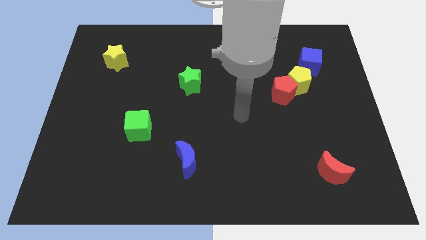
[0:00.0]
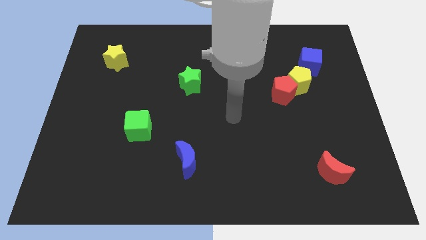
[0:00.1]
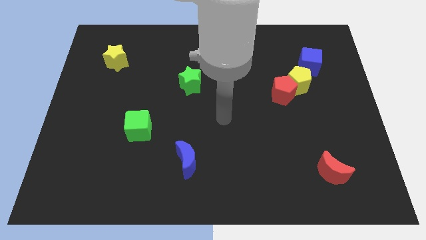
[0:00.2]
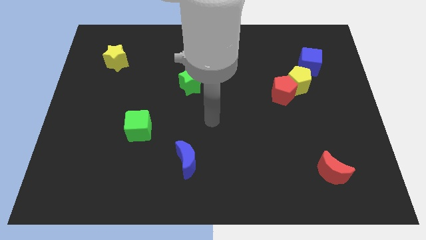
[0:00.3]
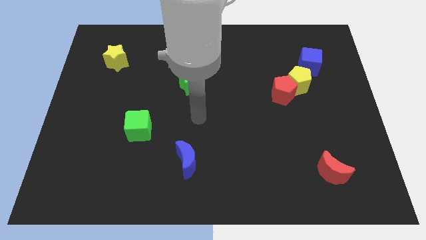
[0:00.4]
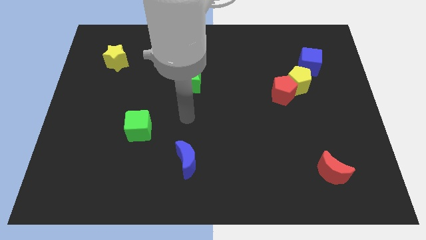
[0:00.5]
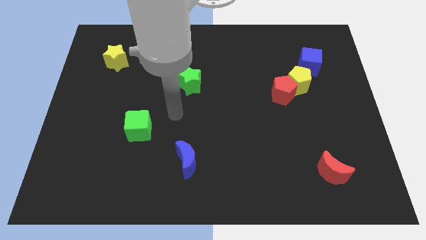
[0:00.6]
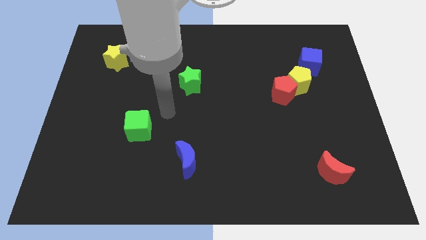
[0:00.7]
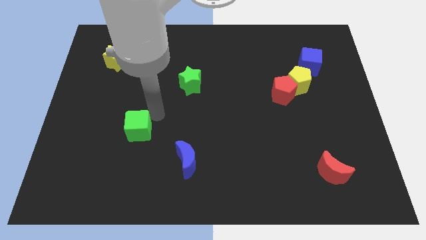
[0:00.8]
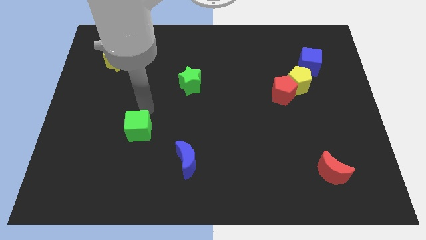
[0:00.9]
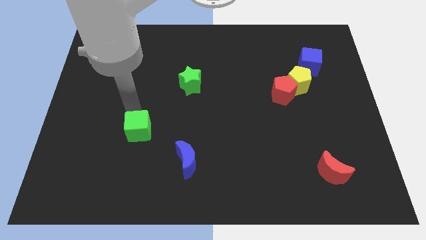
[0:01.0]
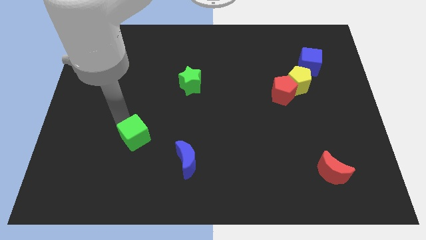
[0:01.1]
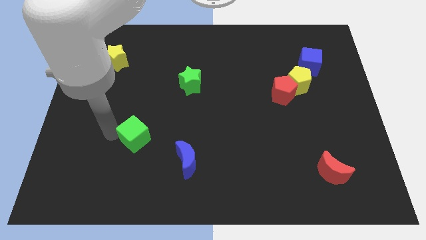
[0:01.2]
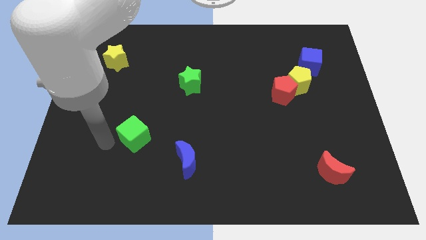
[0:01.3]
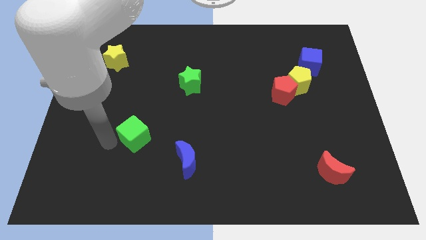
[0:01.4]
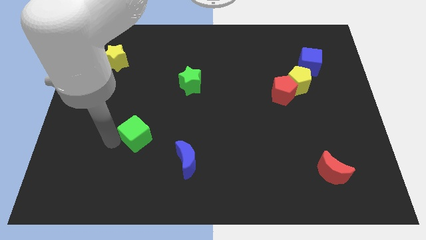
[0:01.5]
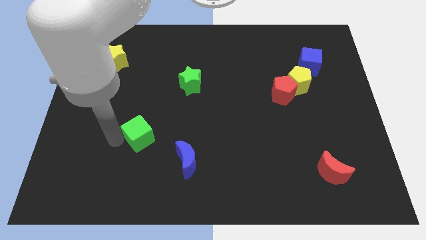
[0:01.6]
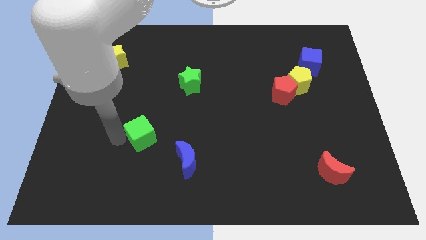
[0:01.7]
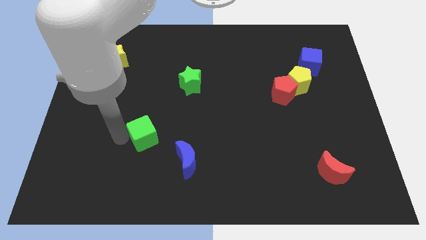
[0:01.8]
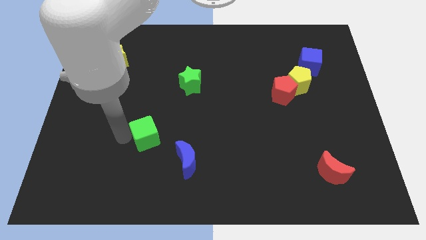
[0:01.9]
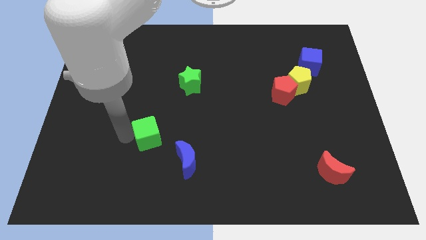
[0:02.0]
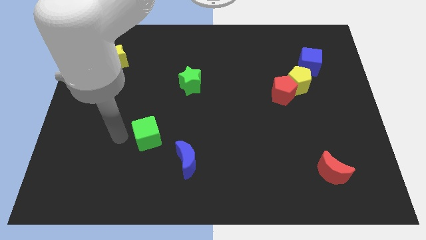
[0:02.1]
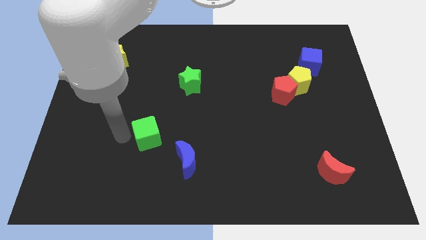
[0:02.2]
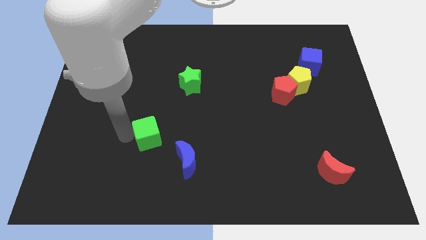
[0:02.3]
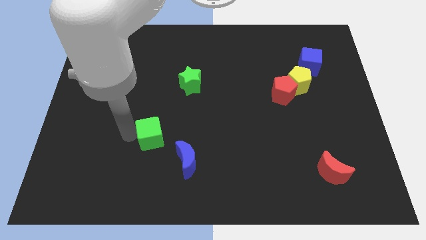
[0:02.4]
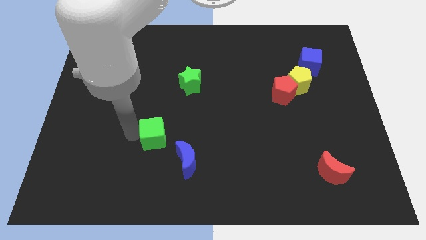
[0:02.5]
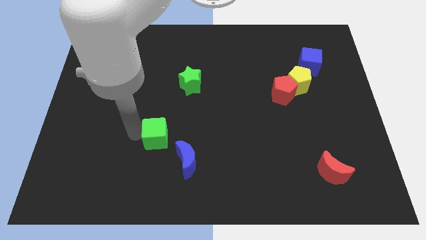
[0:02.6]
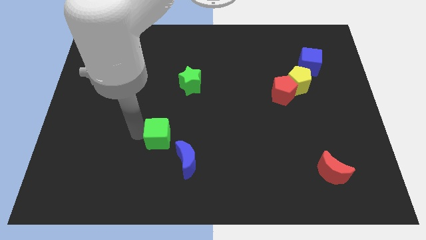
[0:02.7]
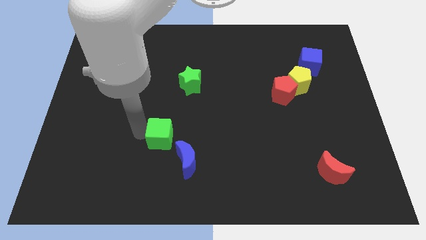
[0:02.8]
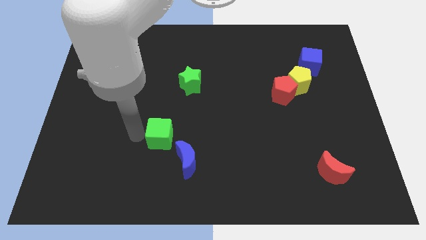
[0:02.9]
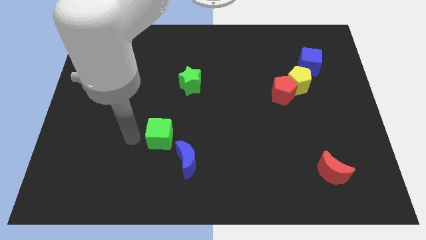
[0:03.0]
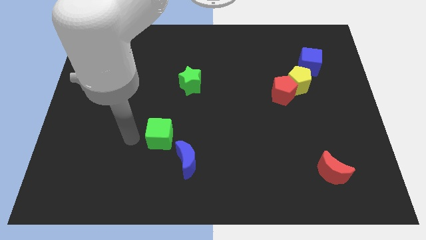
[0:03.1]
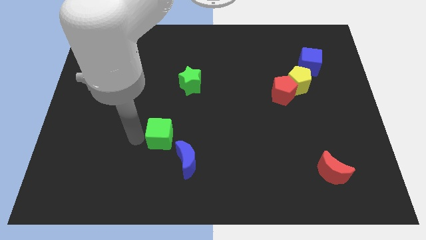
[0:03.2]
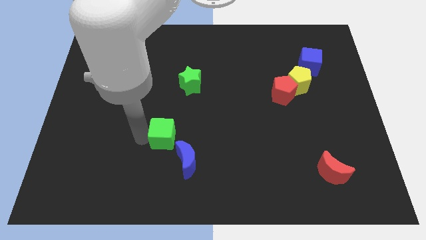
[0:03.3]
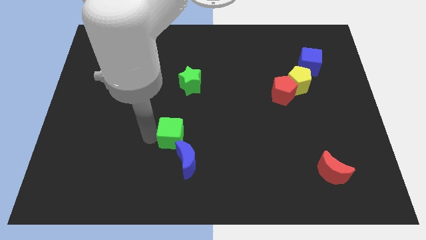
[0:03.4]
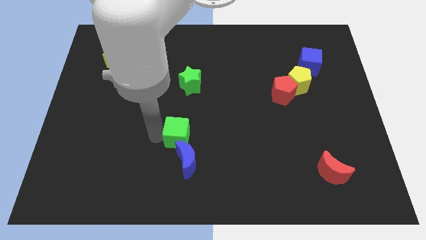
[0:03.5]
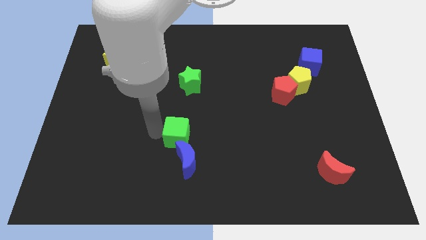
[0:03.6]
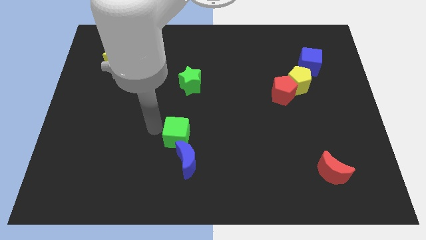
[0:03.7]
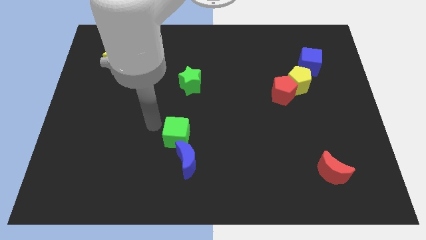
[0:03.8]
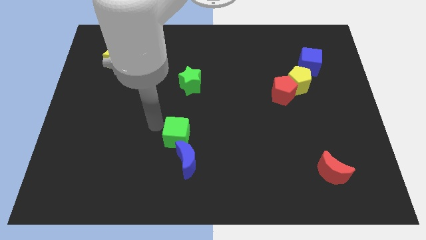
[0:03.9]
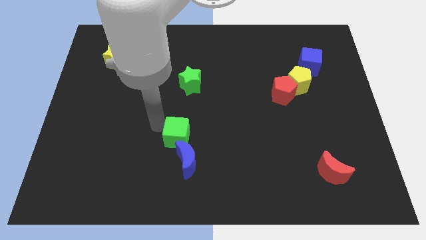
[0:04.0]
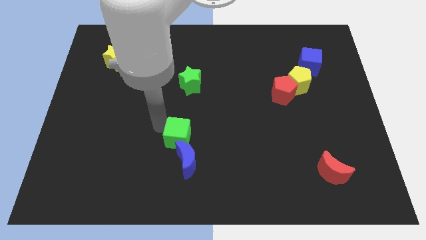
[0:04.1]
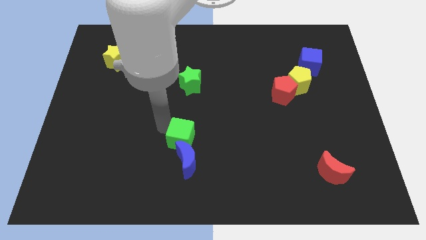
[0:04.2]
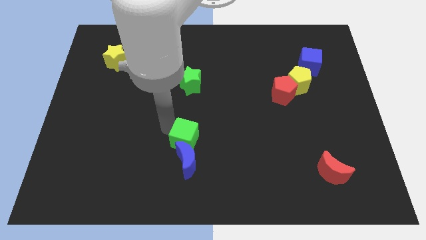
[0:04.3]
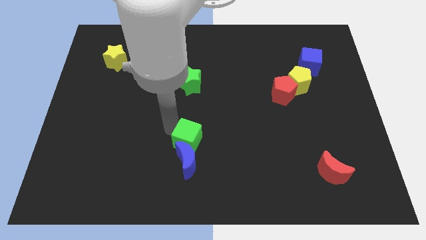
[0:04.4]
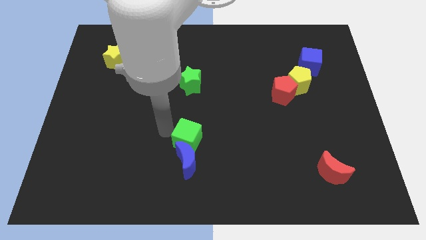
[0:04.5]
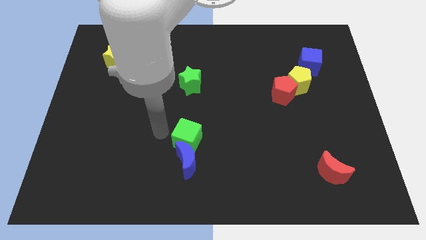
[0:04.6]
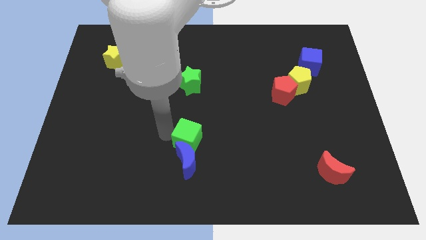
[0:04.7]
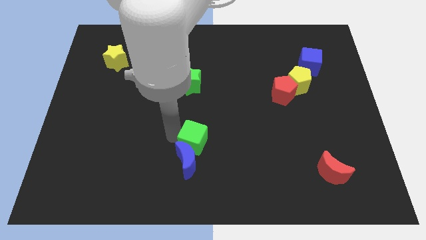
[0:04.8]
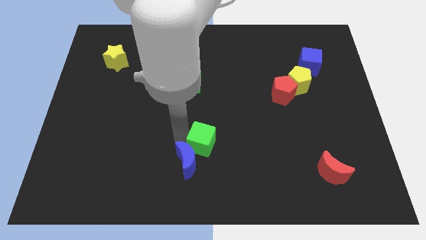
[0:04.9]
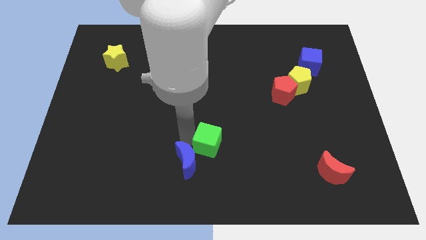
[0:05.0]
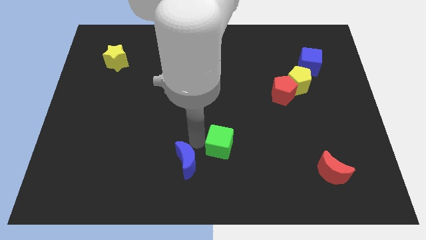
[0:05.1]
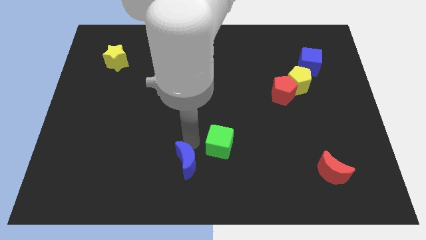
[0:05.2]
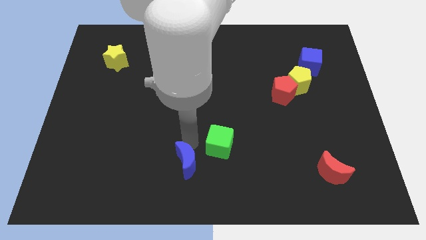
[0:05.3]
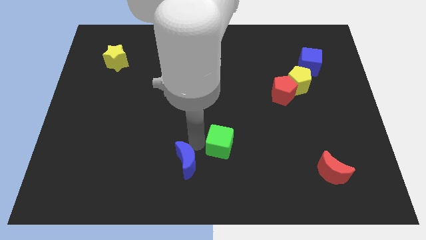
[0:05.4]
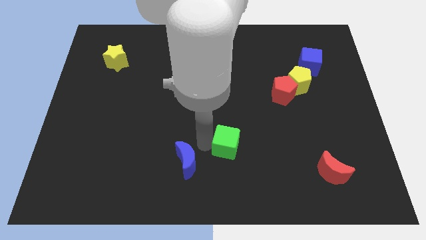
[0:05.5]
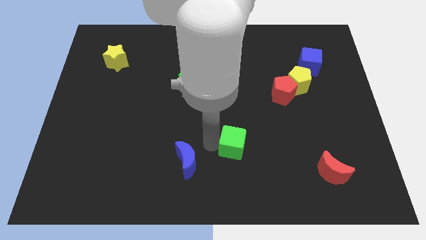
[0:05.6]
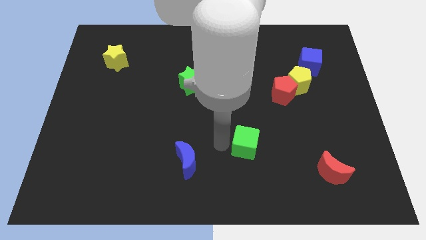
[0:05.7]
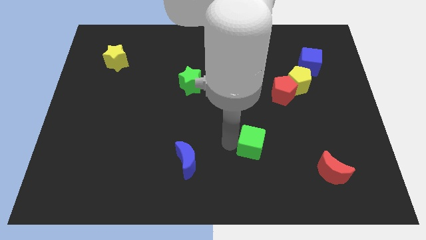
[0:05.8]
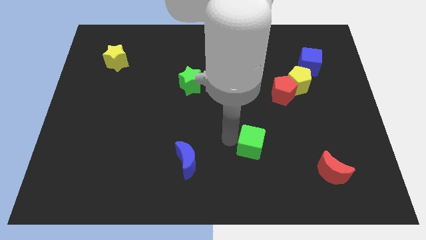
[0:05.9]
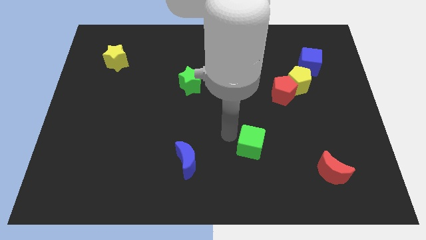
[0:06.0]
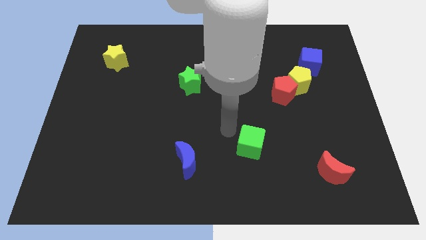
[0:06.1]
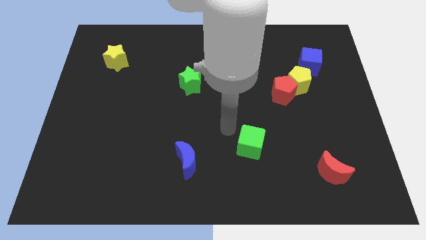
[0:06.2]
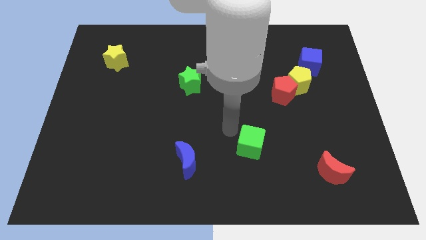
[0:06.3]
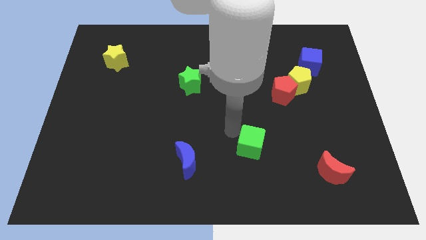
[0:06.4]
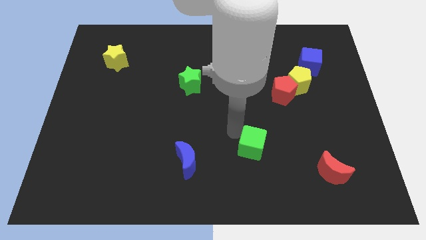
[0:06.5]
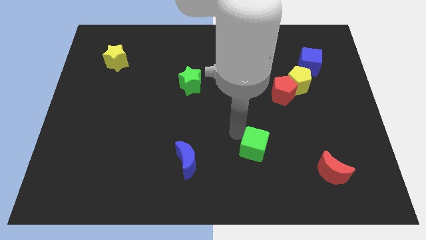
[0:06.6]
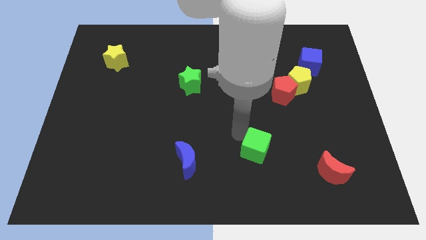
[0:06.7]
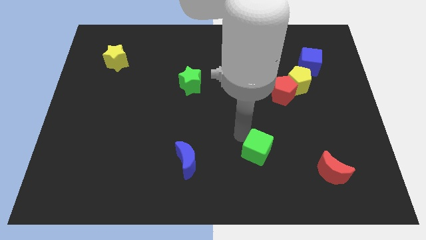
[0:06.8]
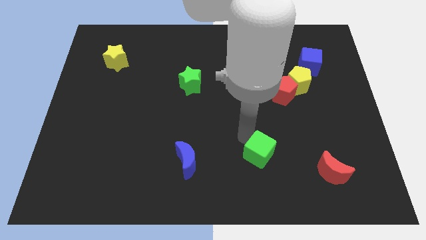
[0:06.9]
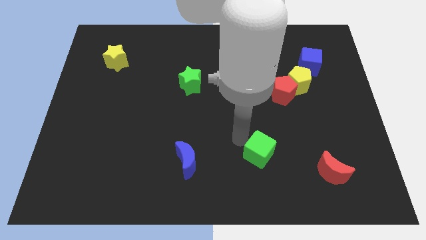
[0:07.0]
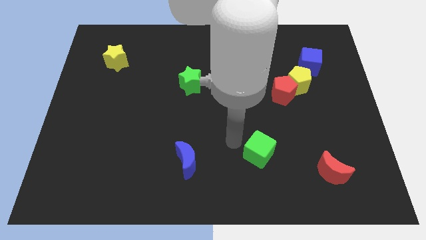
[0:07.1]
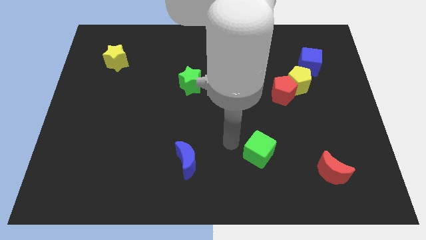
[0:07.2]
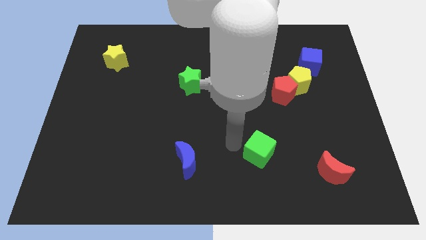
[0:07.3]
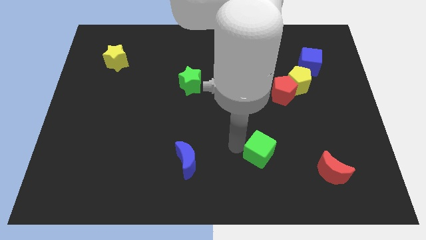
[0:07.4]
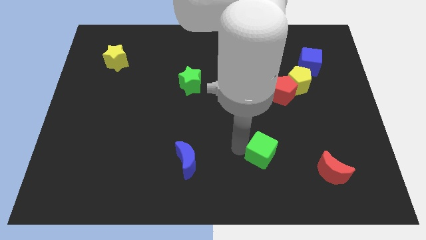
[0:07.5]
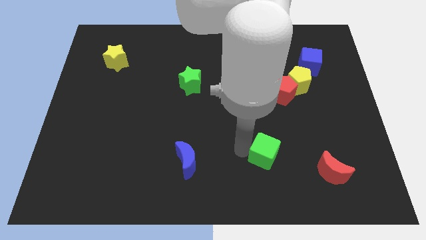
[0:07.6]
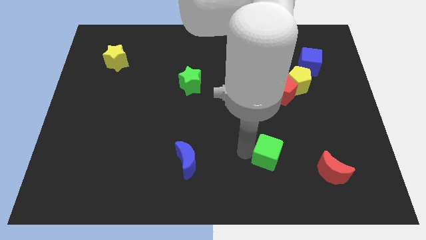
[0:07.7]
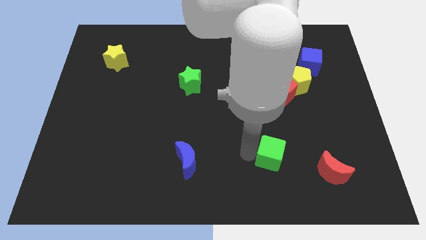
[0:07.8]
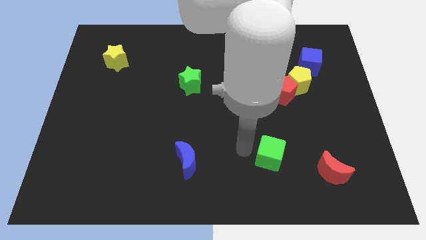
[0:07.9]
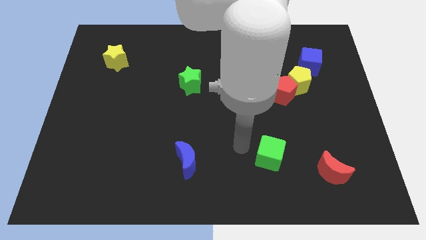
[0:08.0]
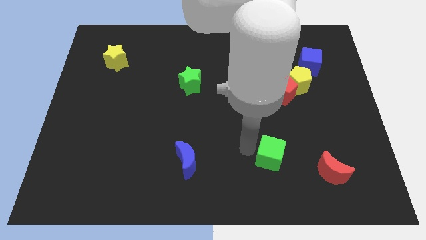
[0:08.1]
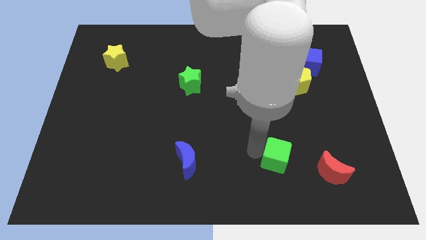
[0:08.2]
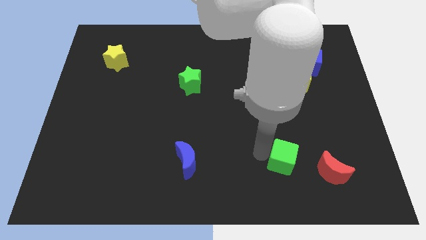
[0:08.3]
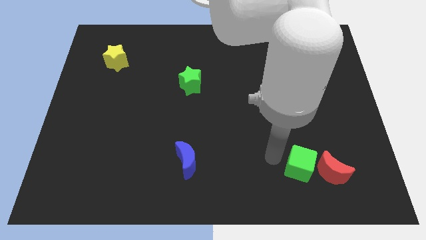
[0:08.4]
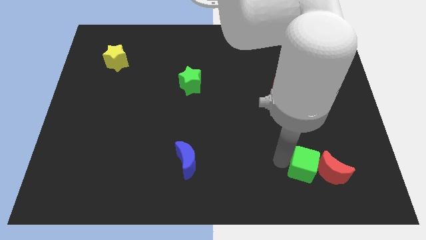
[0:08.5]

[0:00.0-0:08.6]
put the green cube towards the red moon
